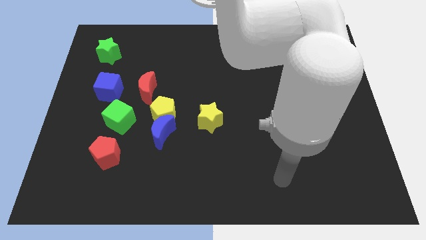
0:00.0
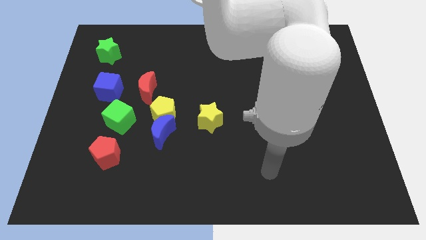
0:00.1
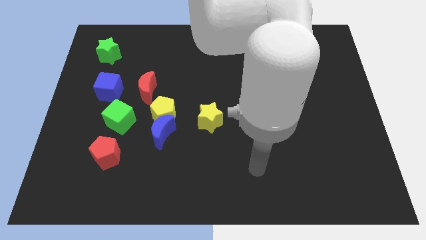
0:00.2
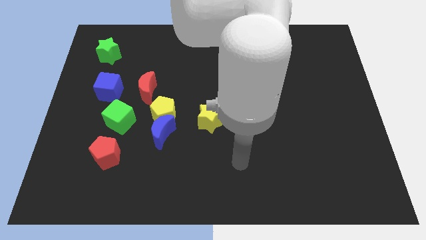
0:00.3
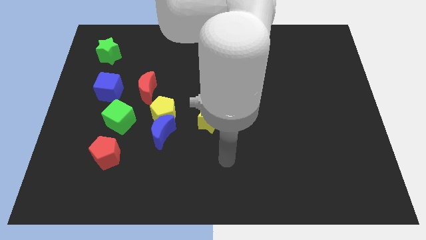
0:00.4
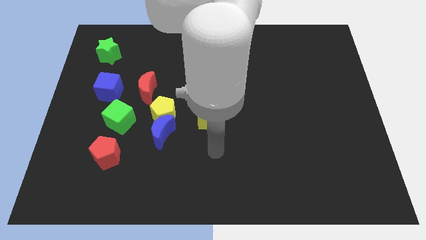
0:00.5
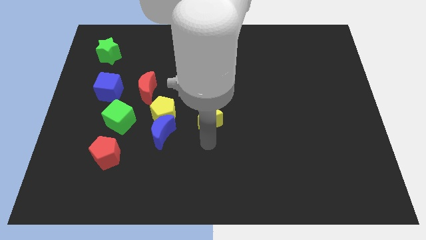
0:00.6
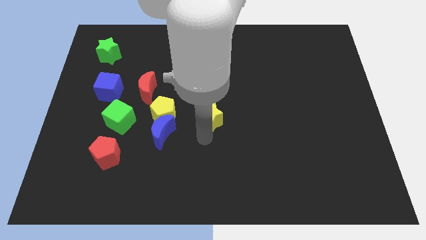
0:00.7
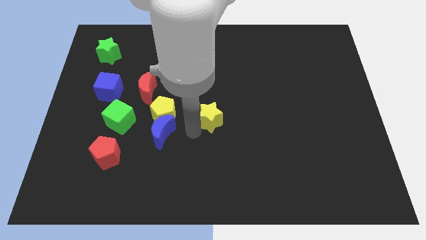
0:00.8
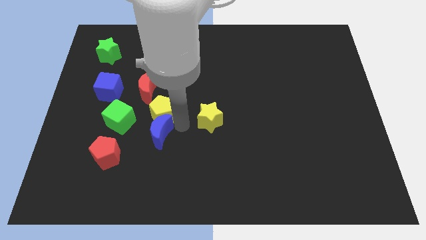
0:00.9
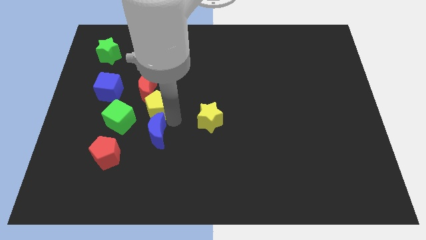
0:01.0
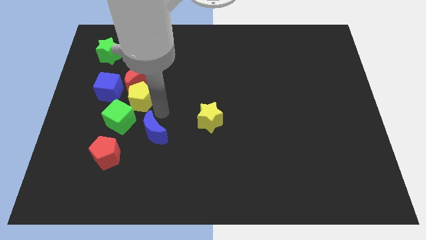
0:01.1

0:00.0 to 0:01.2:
separate the blue moon from the yellow pentagon

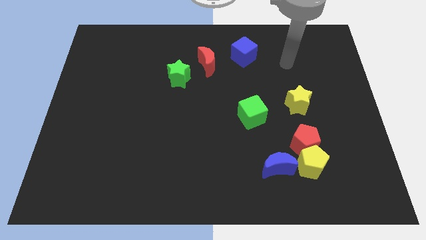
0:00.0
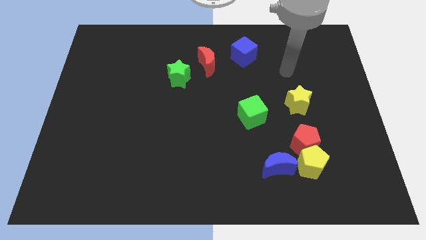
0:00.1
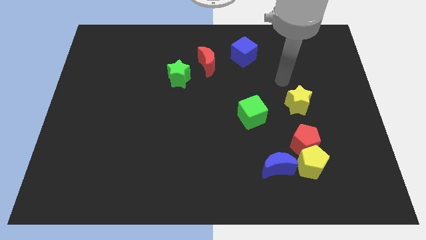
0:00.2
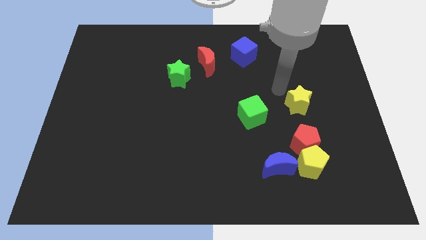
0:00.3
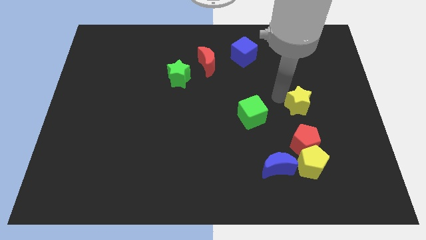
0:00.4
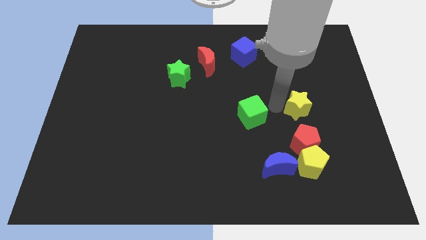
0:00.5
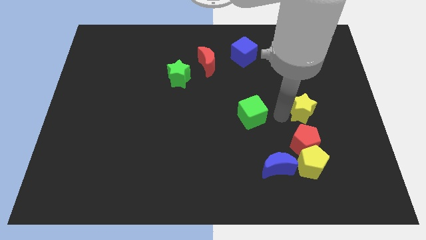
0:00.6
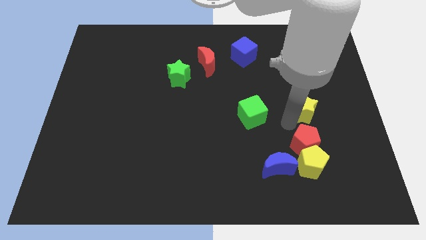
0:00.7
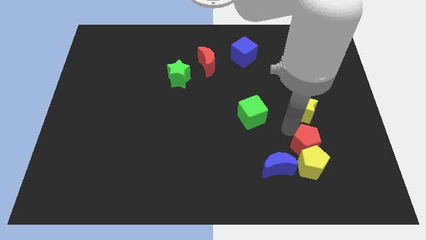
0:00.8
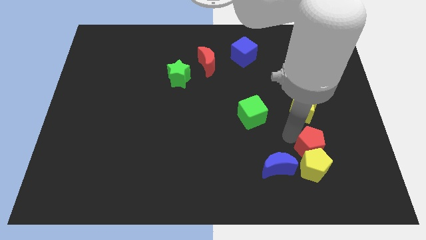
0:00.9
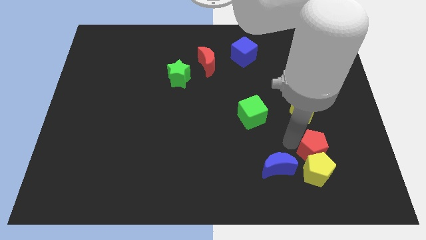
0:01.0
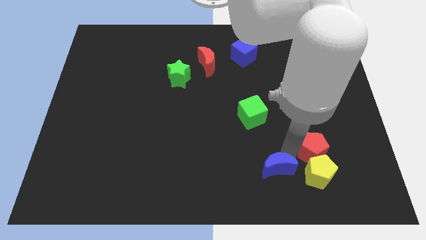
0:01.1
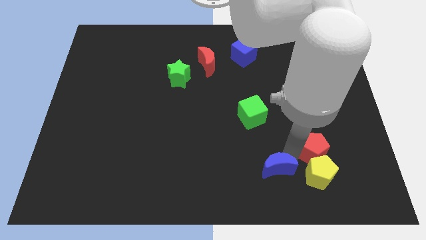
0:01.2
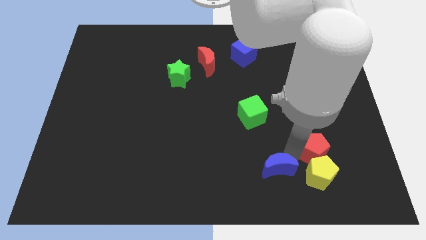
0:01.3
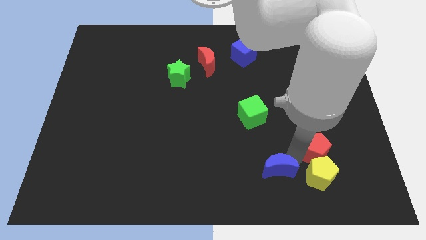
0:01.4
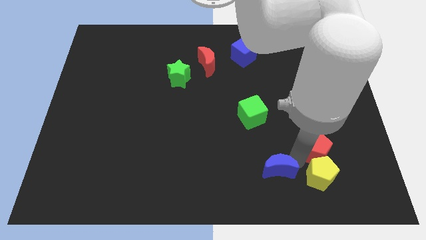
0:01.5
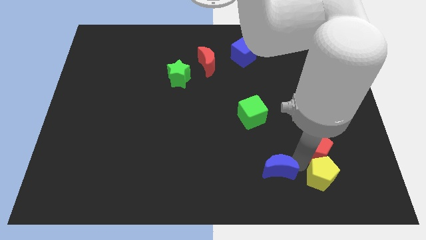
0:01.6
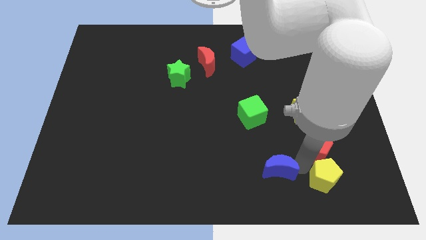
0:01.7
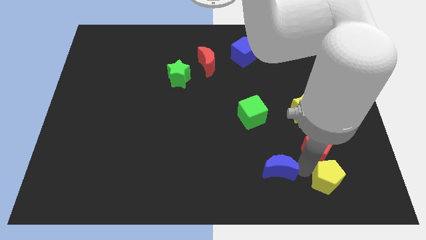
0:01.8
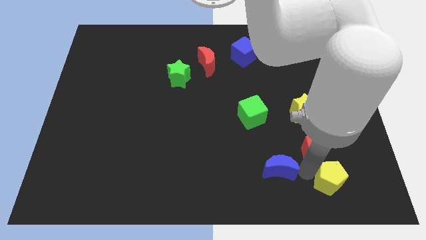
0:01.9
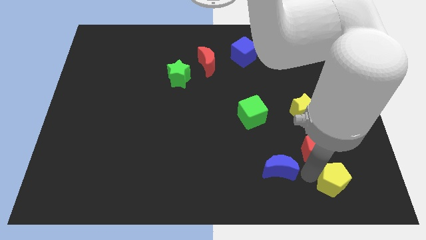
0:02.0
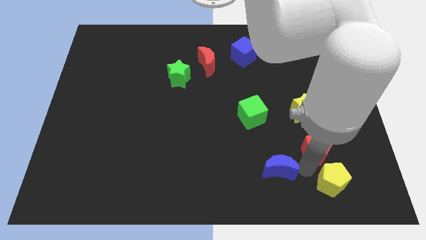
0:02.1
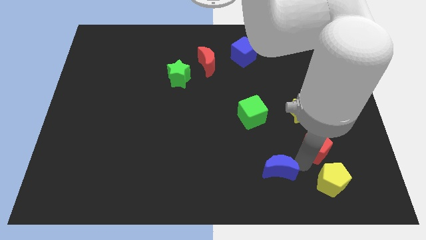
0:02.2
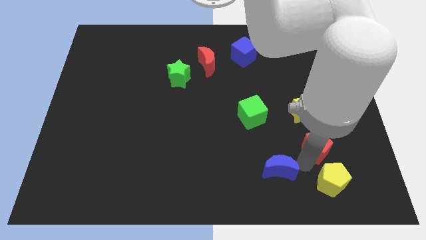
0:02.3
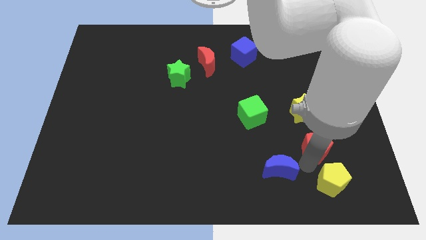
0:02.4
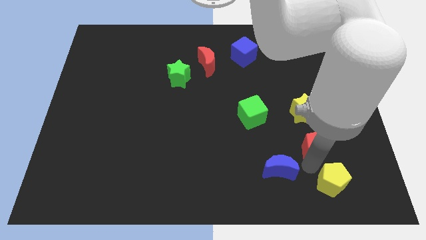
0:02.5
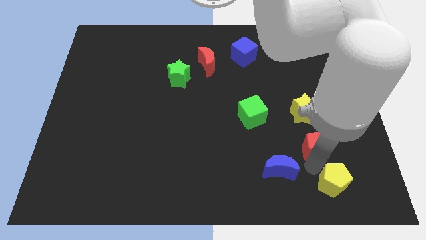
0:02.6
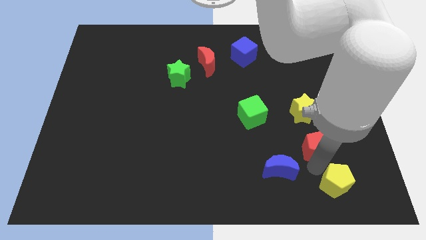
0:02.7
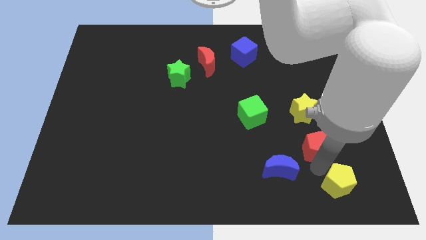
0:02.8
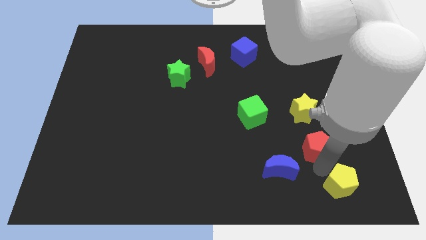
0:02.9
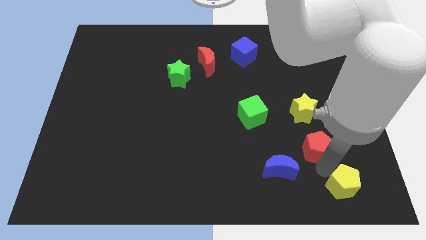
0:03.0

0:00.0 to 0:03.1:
separate the yellow pentagon from the red pentagon and blue moon

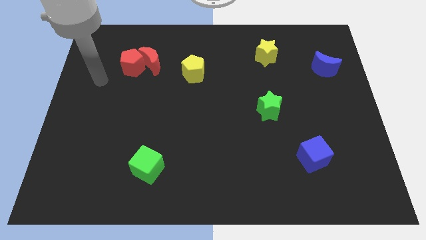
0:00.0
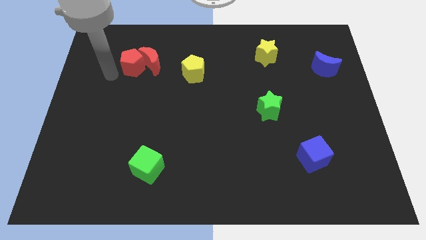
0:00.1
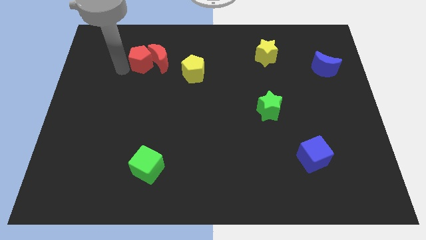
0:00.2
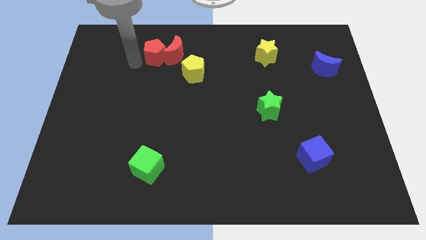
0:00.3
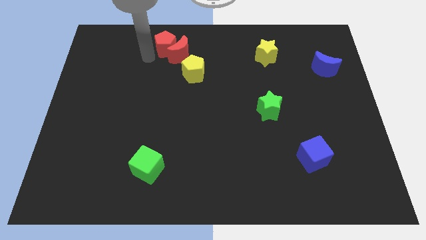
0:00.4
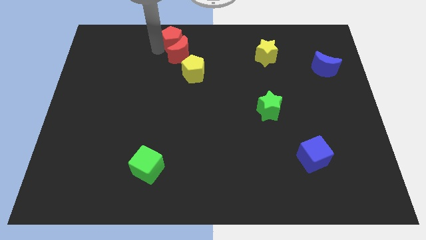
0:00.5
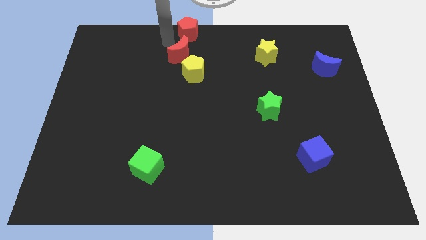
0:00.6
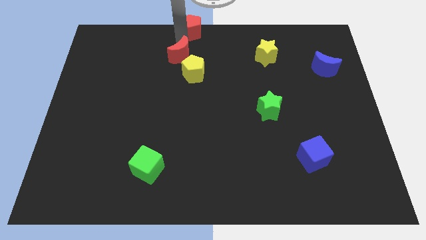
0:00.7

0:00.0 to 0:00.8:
pull the red moon apart from the red pentagon

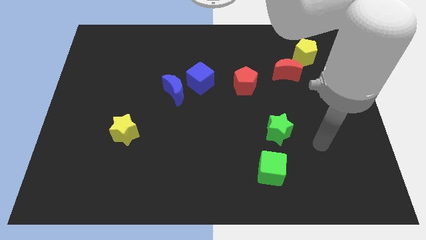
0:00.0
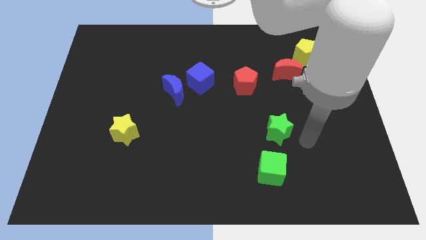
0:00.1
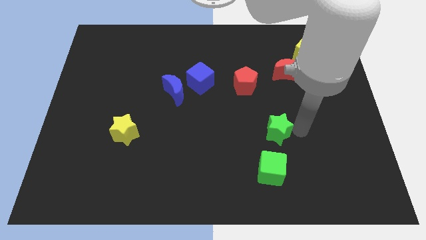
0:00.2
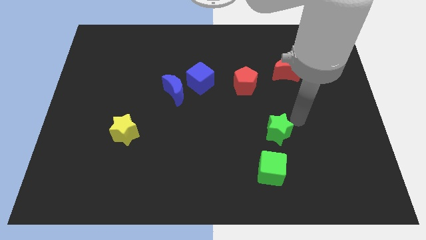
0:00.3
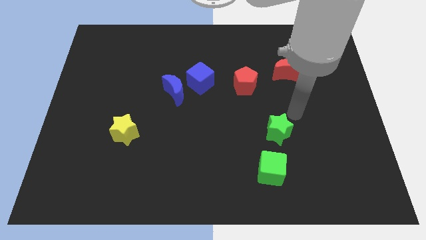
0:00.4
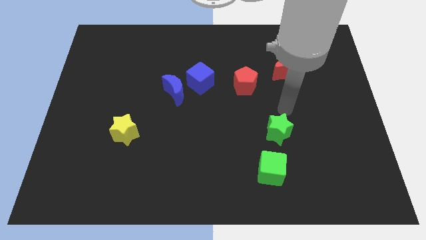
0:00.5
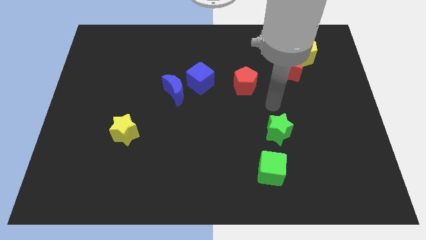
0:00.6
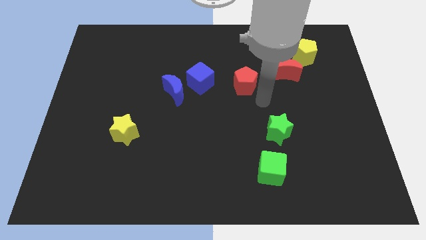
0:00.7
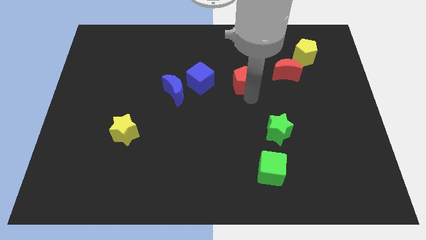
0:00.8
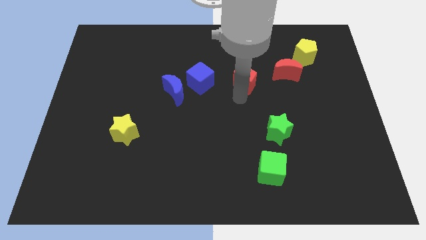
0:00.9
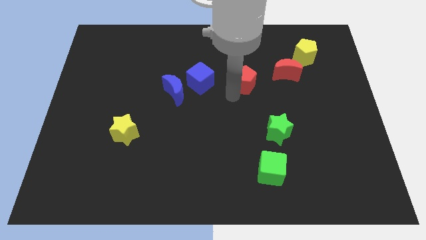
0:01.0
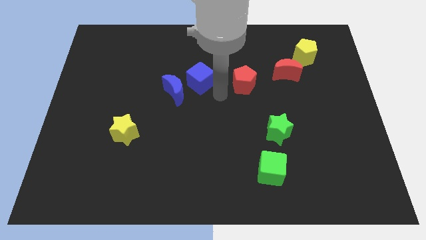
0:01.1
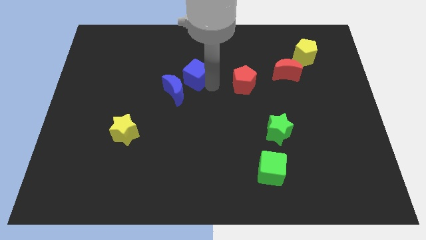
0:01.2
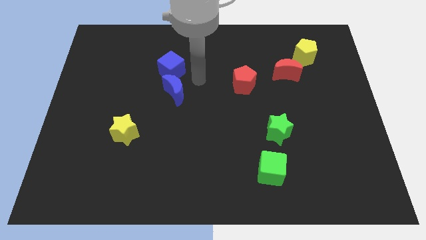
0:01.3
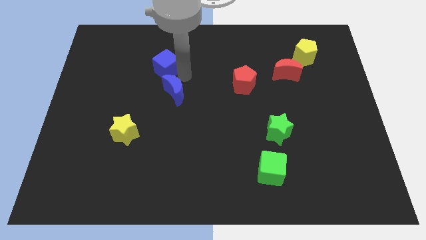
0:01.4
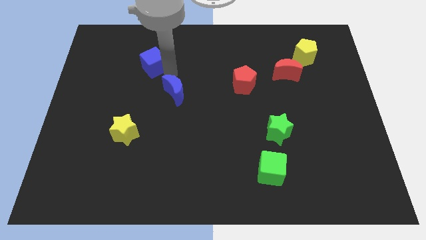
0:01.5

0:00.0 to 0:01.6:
move the blue moon away from the blue cube

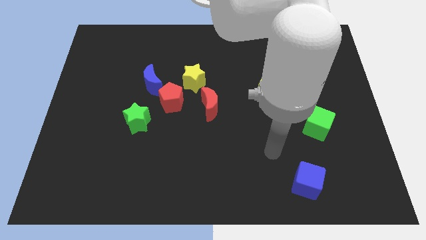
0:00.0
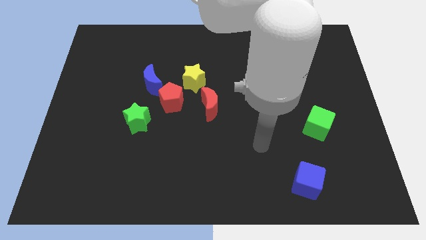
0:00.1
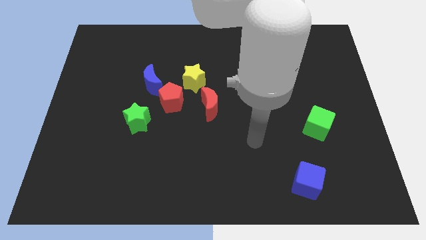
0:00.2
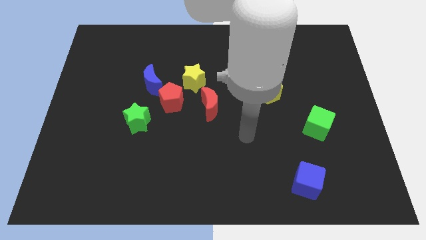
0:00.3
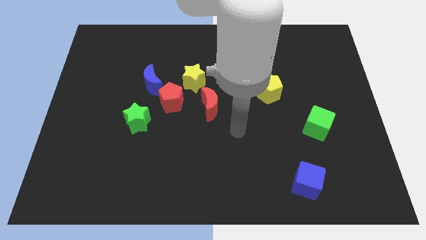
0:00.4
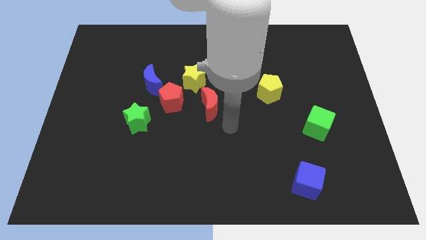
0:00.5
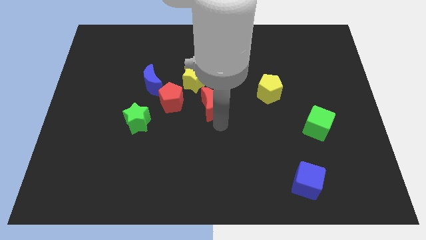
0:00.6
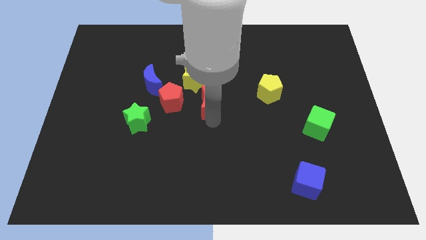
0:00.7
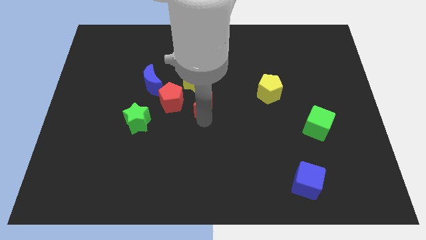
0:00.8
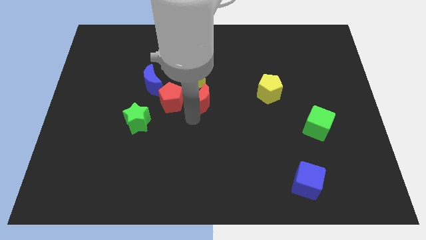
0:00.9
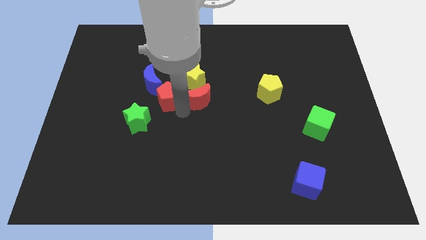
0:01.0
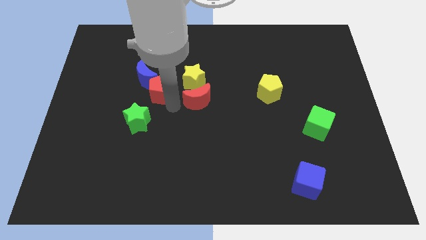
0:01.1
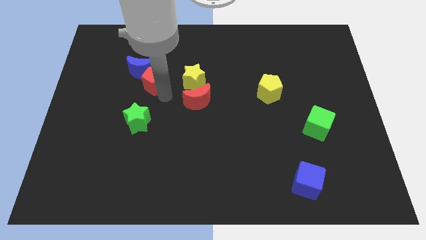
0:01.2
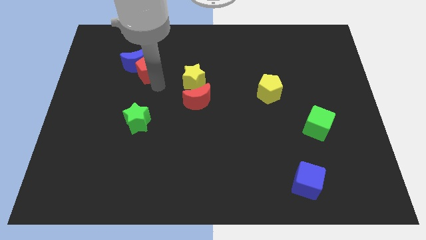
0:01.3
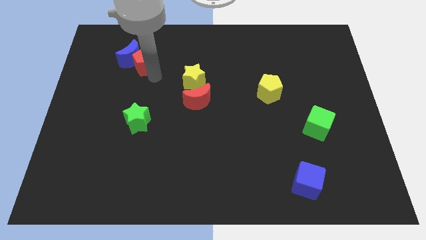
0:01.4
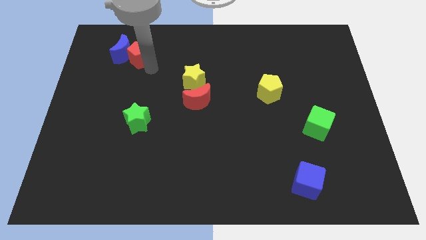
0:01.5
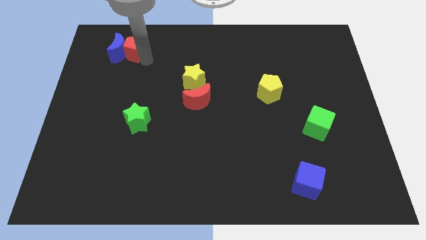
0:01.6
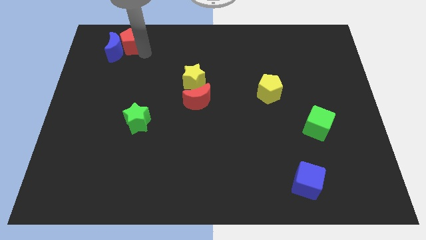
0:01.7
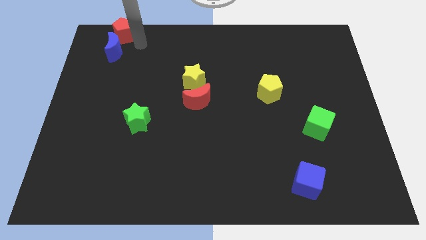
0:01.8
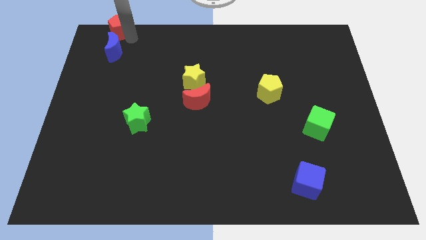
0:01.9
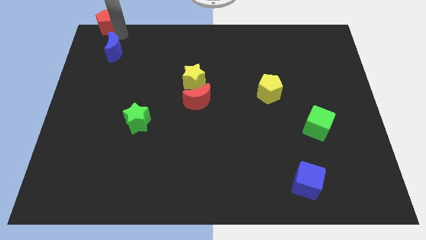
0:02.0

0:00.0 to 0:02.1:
pull the blue moon apart from the red pentagon

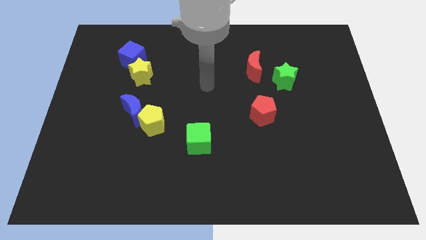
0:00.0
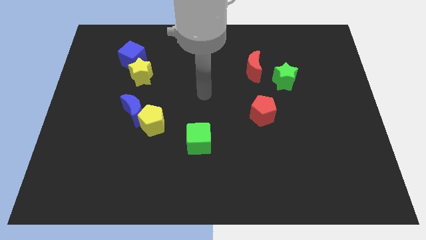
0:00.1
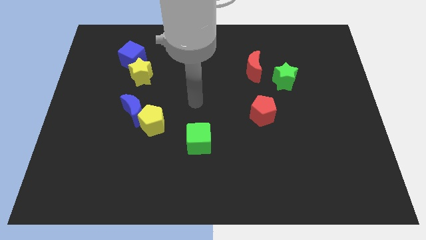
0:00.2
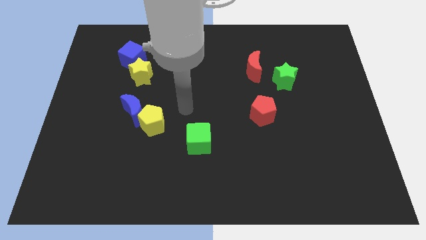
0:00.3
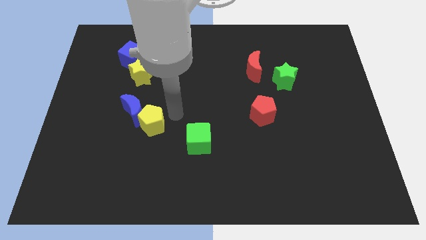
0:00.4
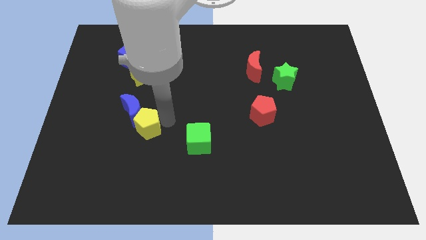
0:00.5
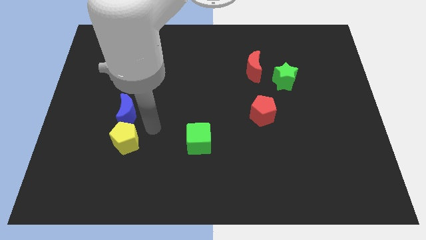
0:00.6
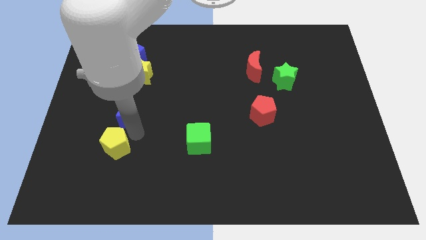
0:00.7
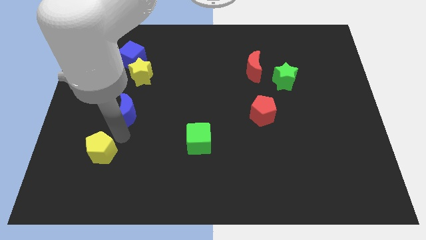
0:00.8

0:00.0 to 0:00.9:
move the blue moon away from the yellow pentagon
